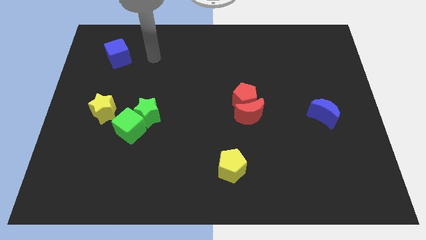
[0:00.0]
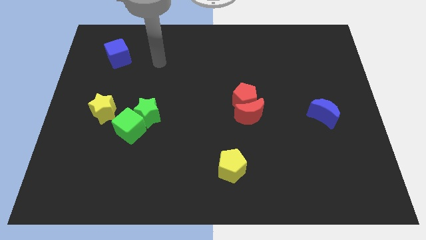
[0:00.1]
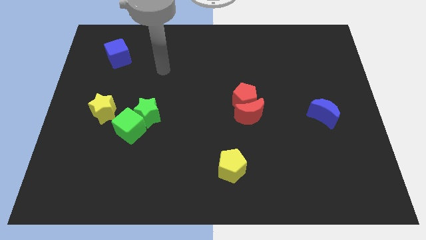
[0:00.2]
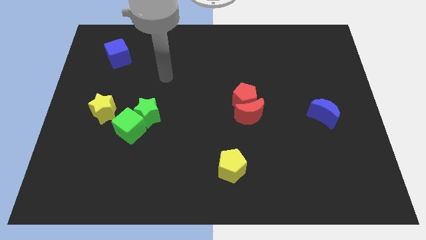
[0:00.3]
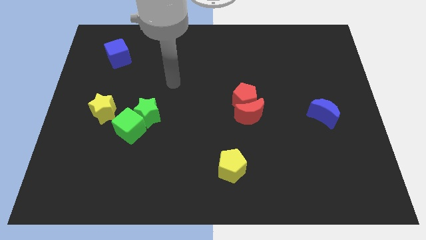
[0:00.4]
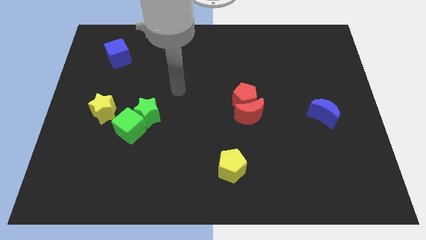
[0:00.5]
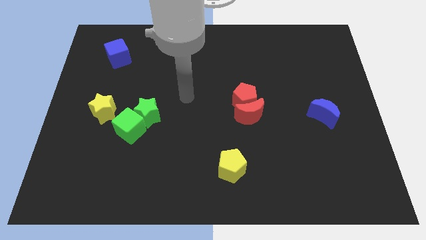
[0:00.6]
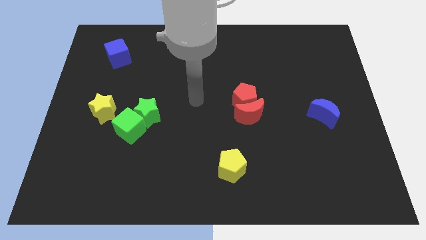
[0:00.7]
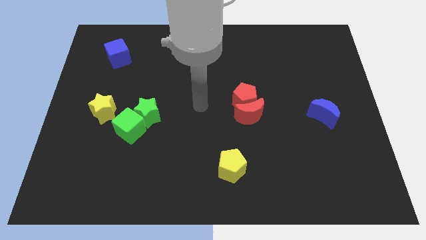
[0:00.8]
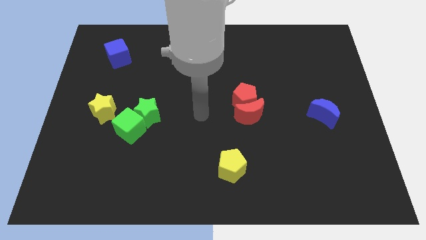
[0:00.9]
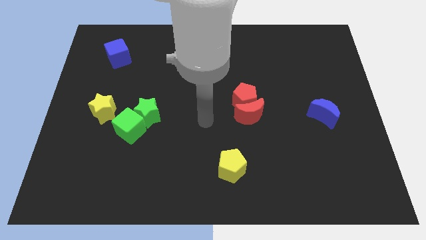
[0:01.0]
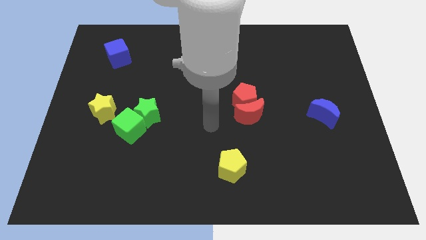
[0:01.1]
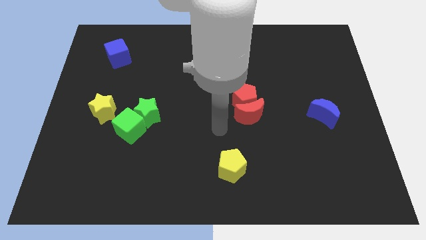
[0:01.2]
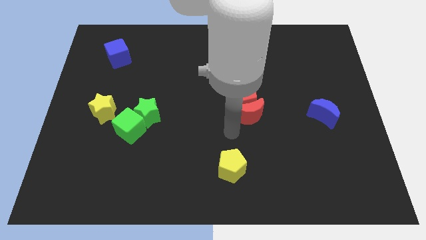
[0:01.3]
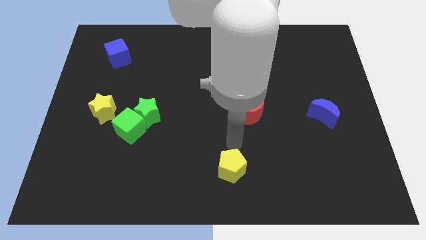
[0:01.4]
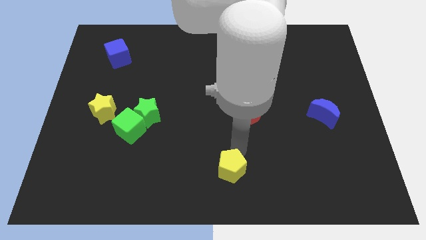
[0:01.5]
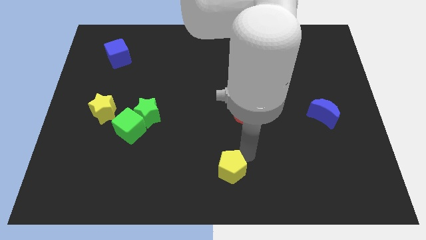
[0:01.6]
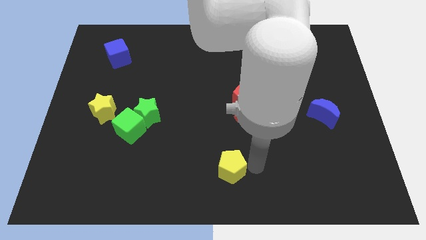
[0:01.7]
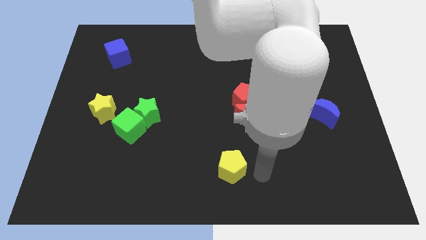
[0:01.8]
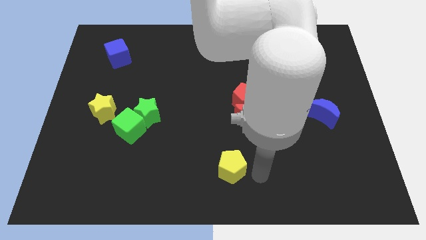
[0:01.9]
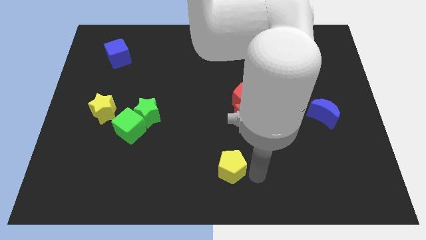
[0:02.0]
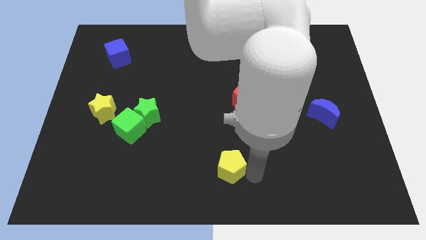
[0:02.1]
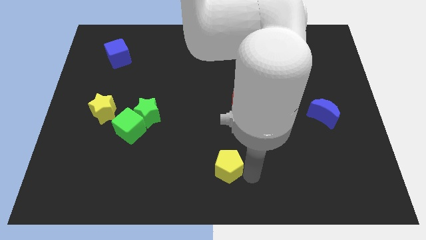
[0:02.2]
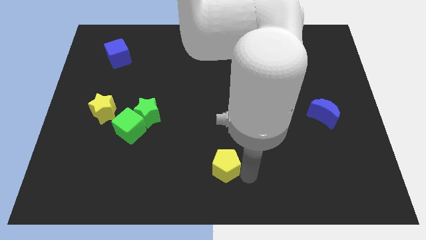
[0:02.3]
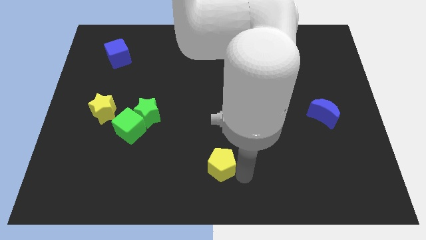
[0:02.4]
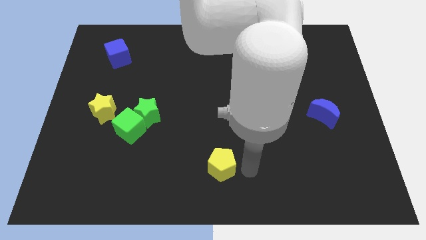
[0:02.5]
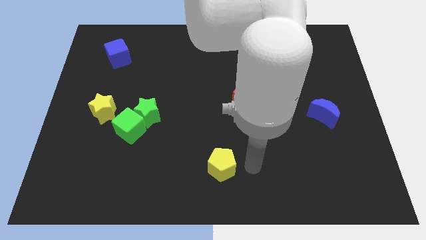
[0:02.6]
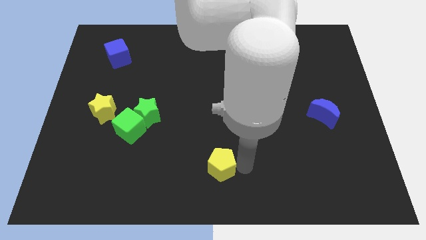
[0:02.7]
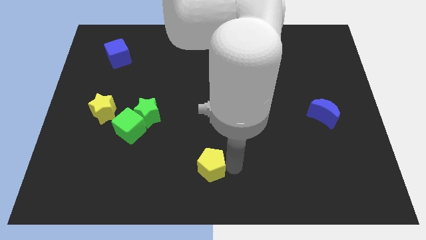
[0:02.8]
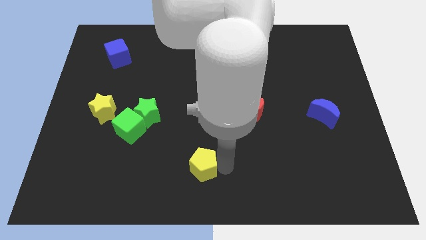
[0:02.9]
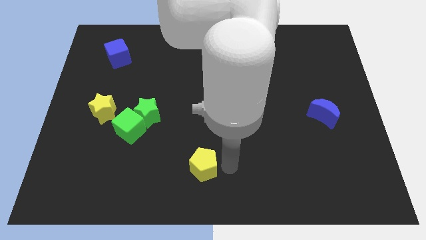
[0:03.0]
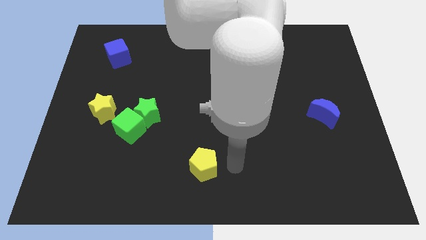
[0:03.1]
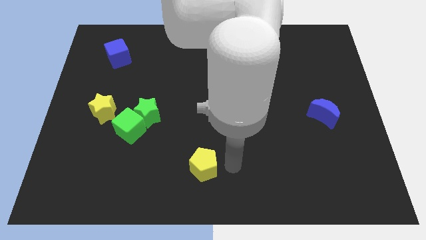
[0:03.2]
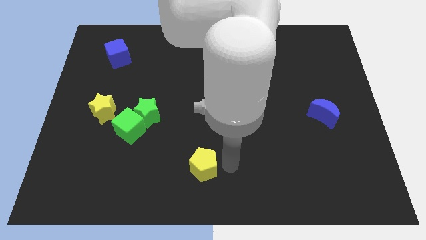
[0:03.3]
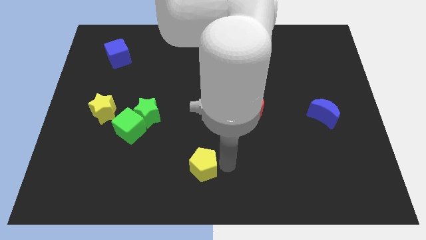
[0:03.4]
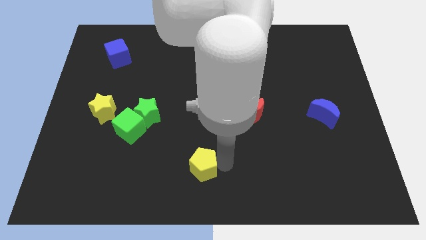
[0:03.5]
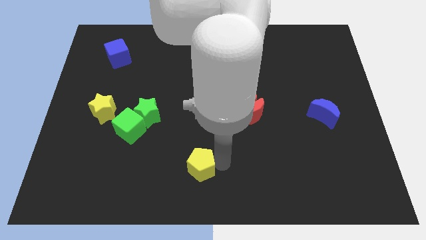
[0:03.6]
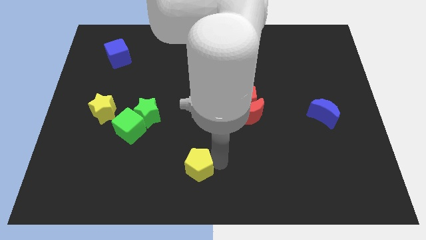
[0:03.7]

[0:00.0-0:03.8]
slightly push the yellow pentagon left
